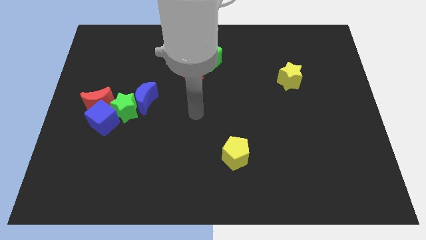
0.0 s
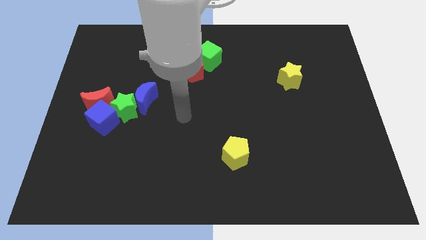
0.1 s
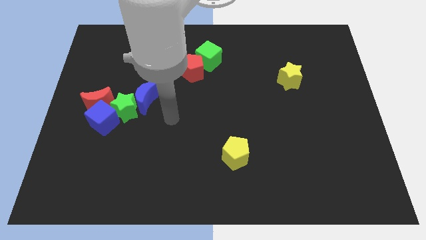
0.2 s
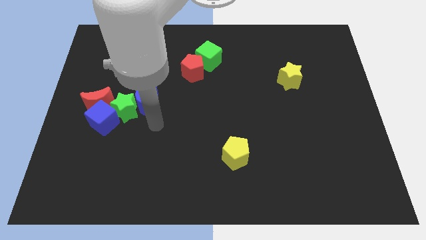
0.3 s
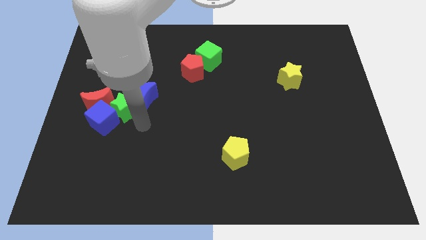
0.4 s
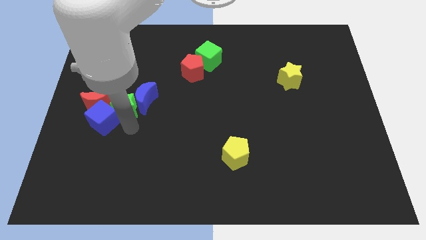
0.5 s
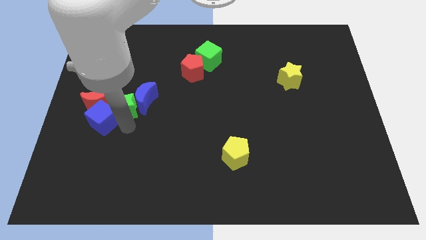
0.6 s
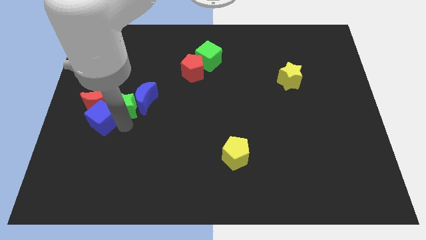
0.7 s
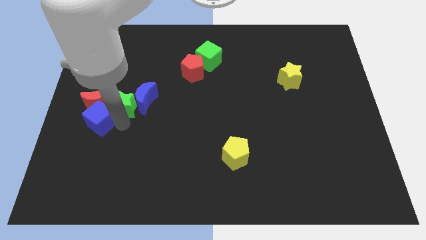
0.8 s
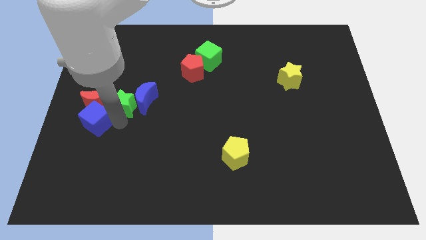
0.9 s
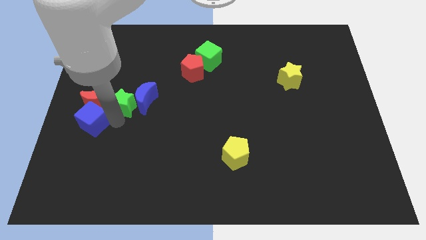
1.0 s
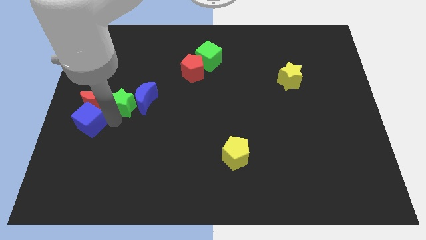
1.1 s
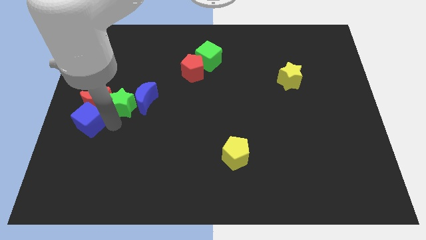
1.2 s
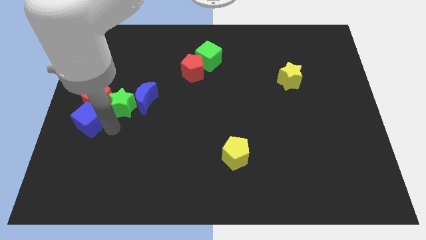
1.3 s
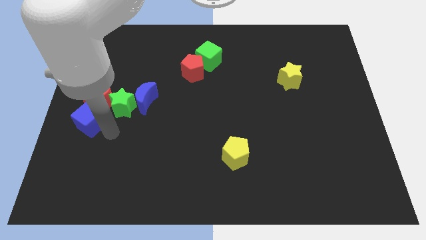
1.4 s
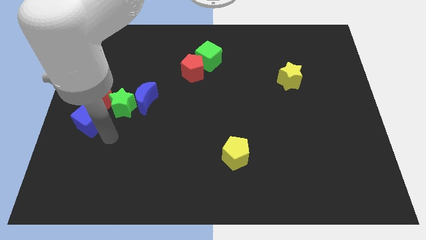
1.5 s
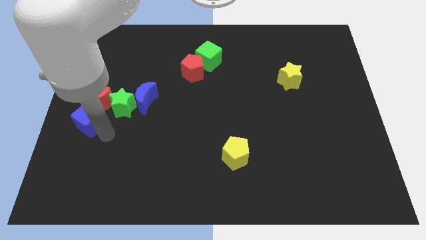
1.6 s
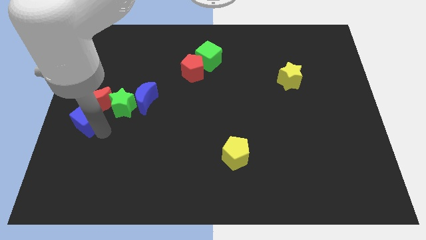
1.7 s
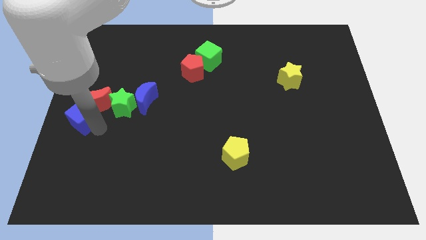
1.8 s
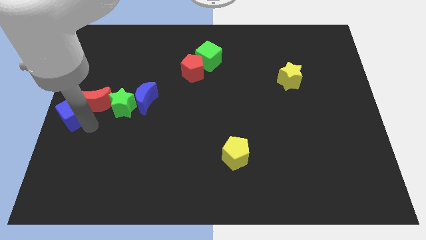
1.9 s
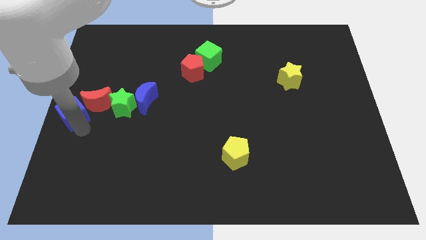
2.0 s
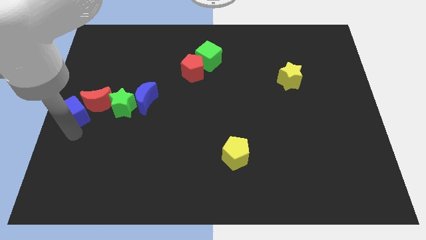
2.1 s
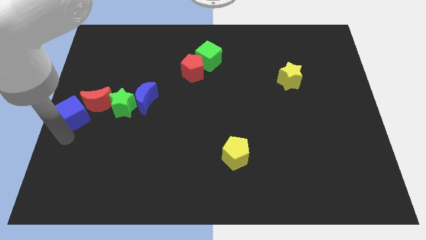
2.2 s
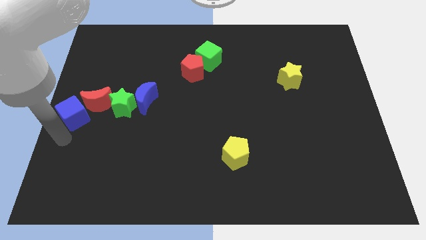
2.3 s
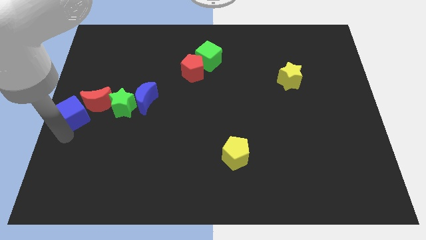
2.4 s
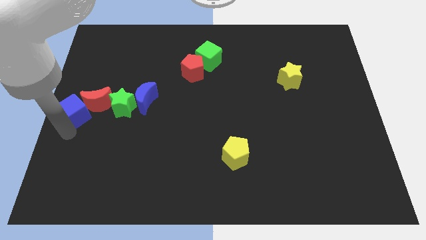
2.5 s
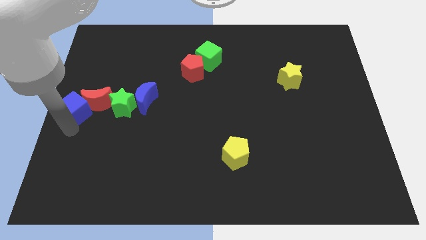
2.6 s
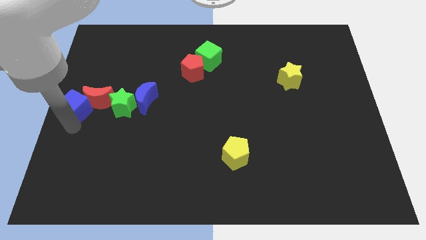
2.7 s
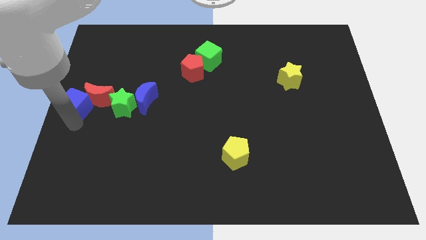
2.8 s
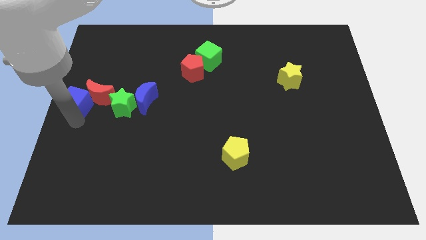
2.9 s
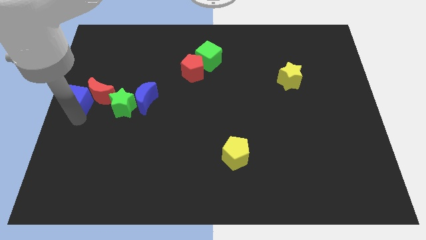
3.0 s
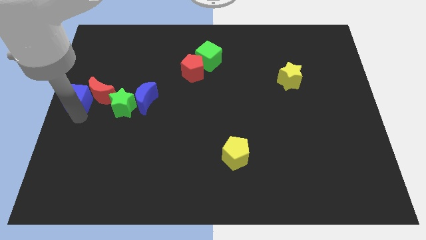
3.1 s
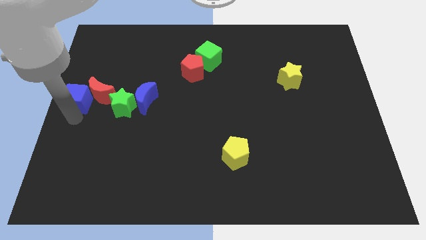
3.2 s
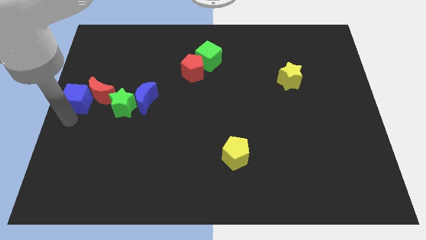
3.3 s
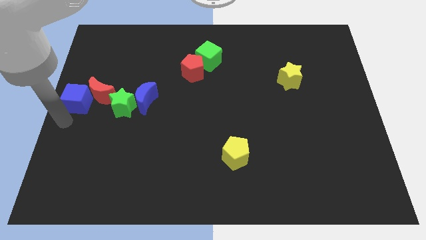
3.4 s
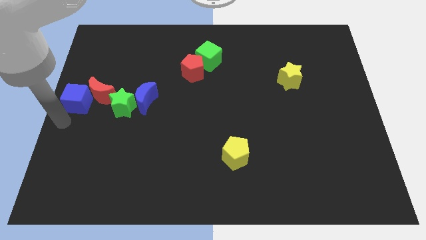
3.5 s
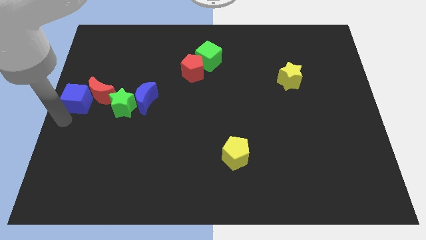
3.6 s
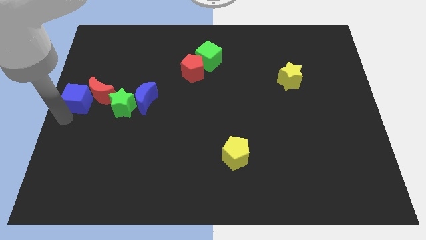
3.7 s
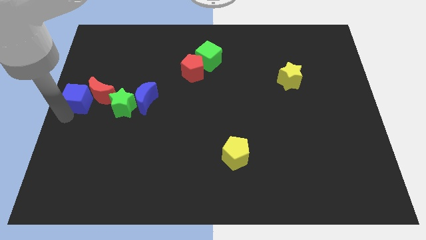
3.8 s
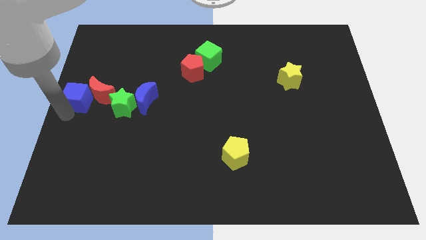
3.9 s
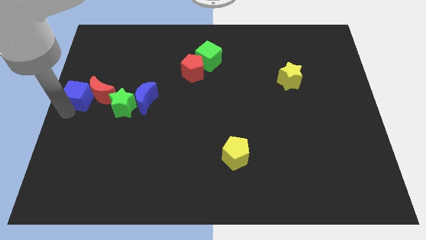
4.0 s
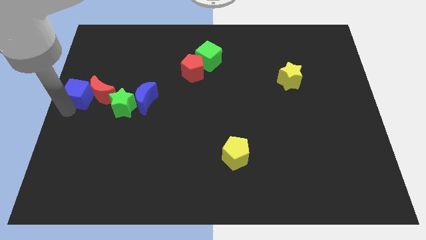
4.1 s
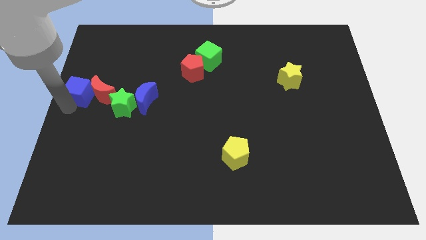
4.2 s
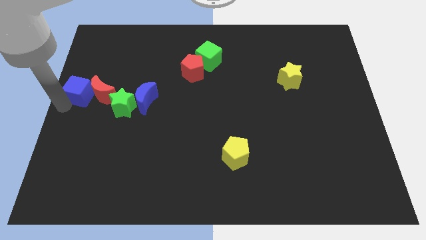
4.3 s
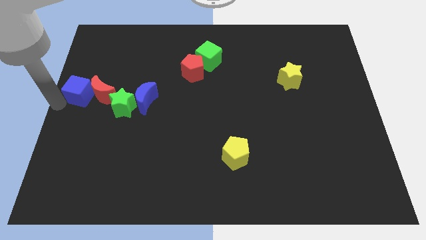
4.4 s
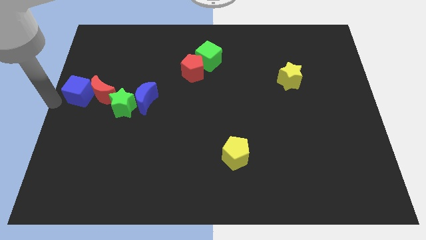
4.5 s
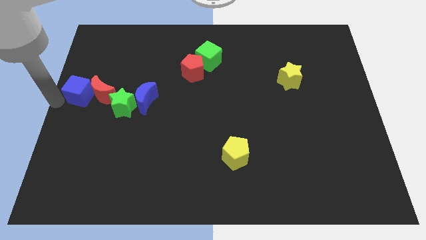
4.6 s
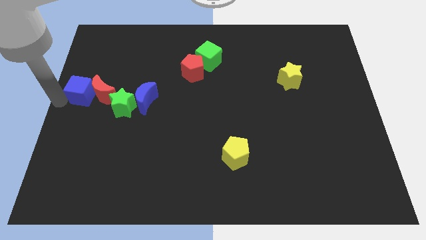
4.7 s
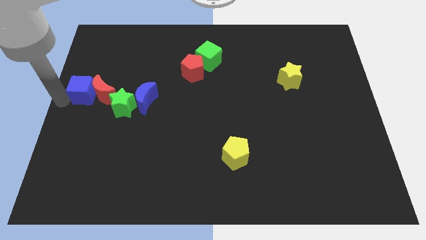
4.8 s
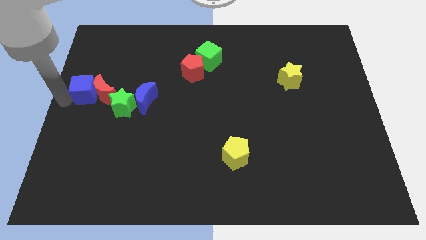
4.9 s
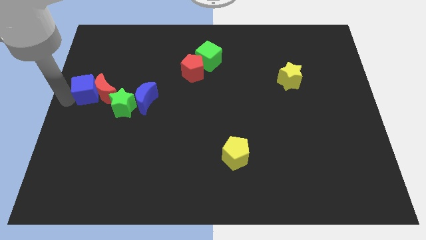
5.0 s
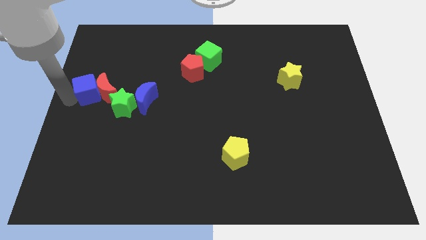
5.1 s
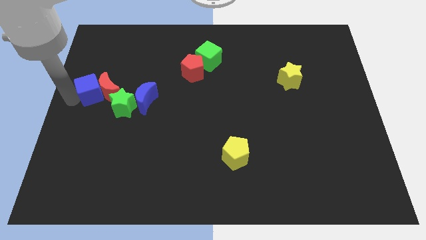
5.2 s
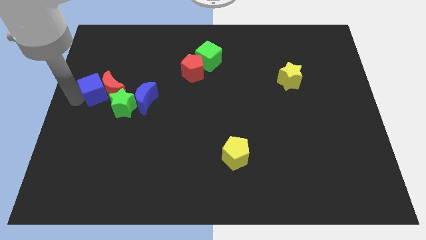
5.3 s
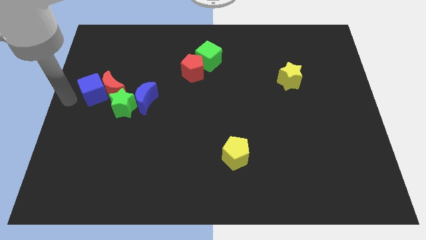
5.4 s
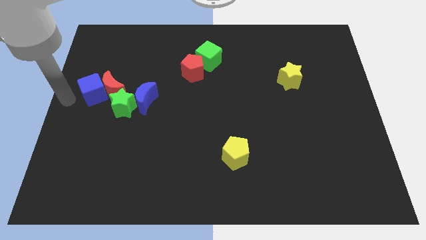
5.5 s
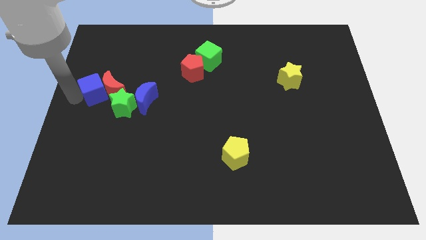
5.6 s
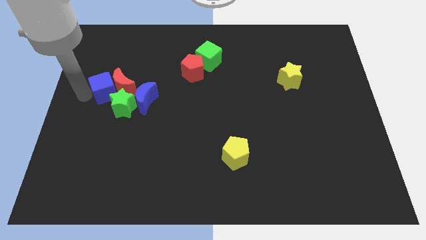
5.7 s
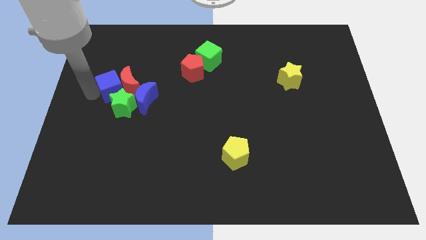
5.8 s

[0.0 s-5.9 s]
put the blue cube diagonally up and to the left of the blue moon

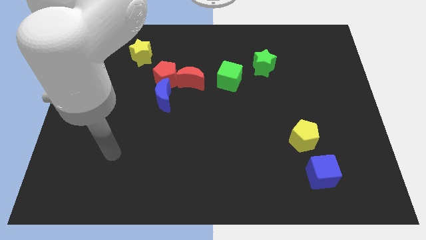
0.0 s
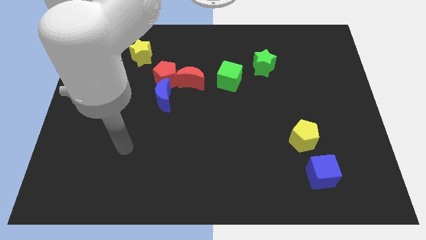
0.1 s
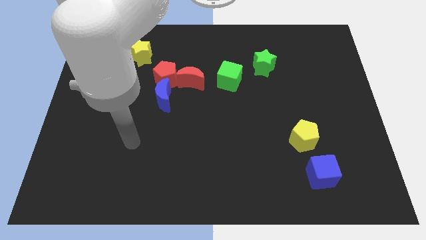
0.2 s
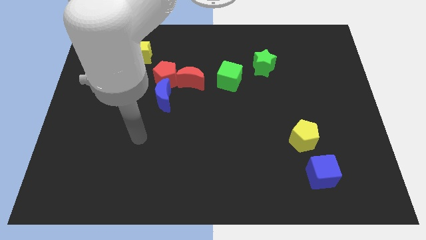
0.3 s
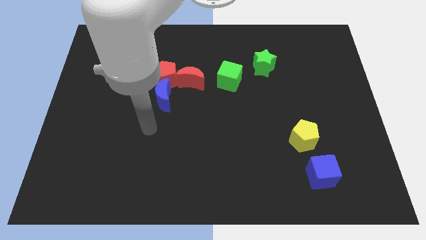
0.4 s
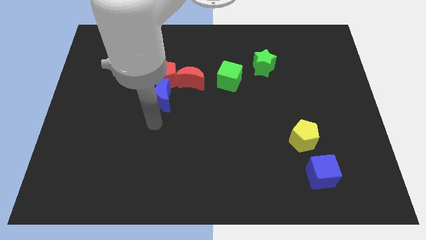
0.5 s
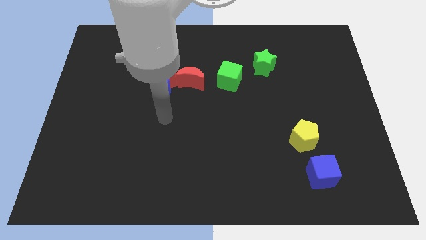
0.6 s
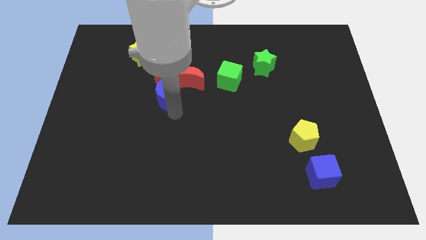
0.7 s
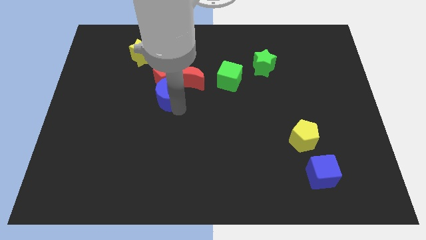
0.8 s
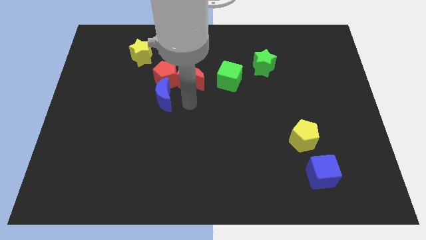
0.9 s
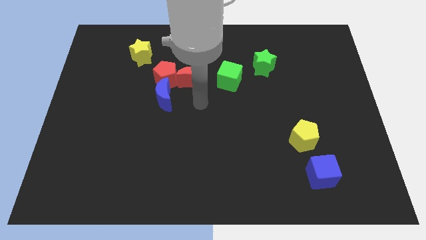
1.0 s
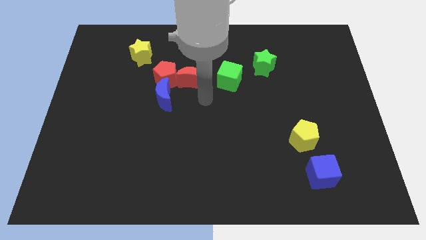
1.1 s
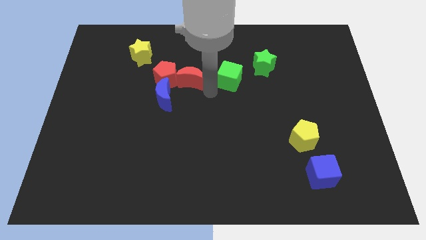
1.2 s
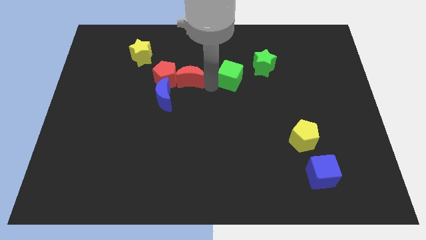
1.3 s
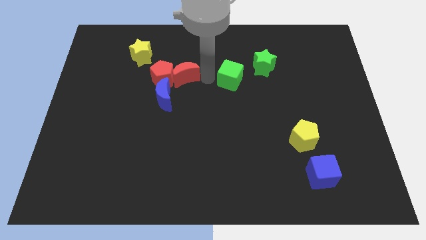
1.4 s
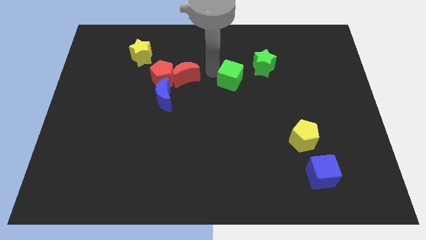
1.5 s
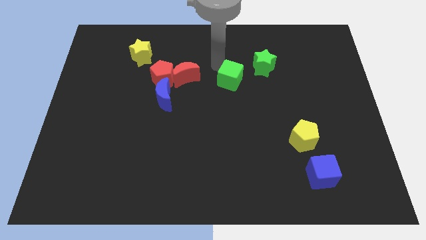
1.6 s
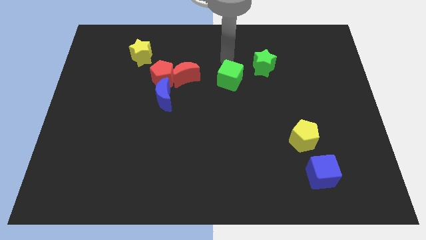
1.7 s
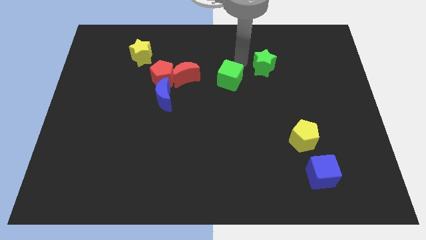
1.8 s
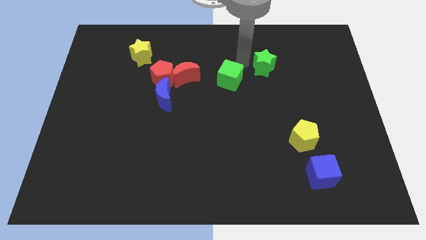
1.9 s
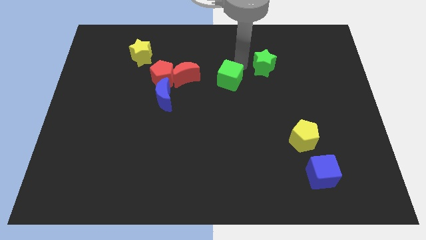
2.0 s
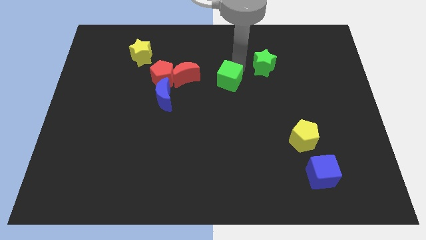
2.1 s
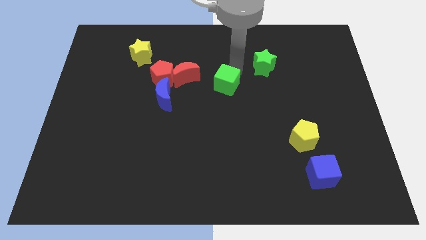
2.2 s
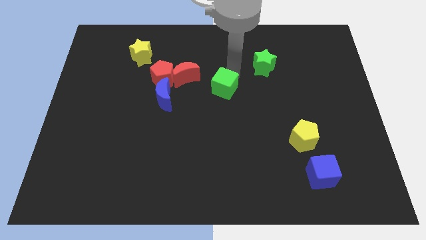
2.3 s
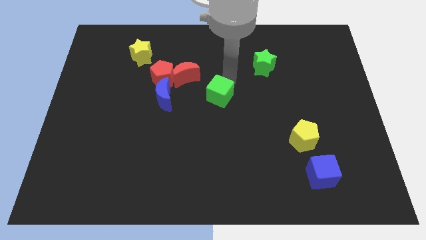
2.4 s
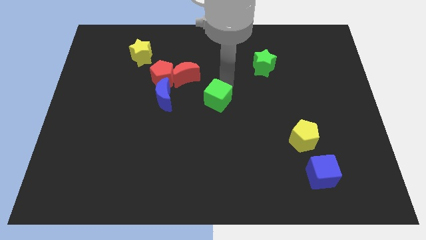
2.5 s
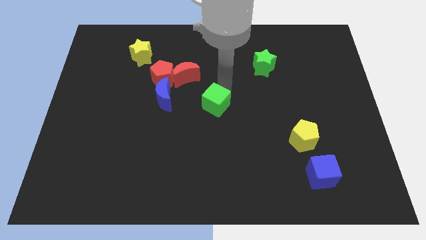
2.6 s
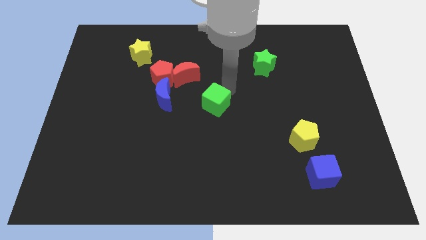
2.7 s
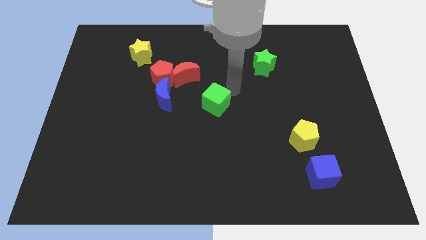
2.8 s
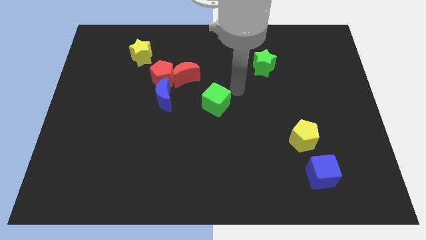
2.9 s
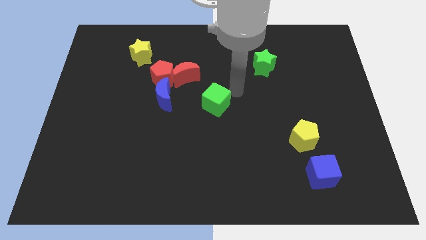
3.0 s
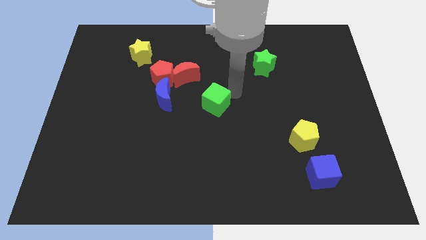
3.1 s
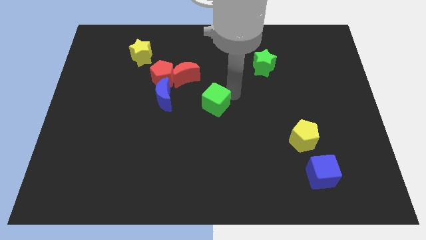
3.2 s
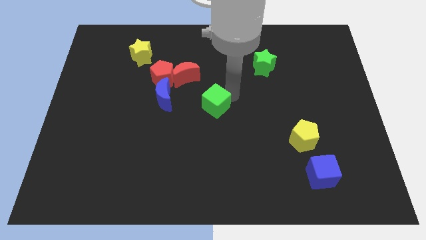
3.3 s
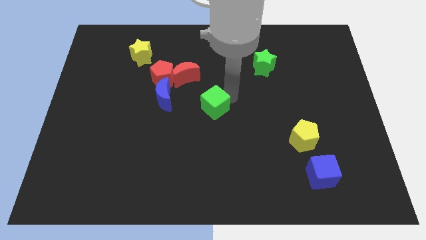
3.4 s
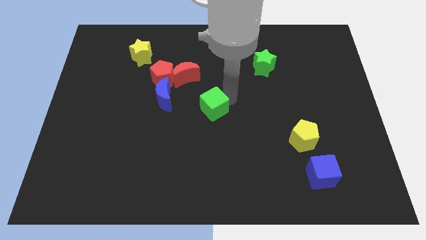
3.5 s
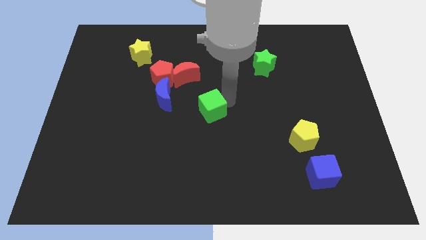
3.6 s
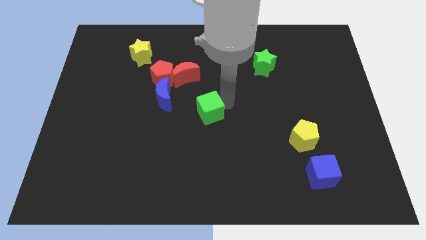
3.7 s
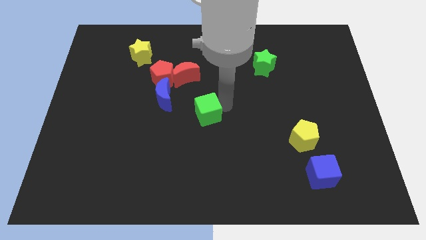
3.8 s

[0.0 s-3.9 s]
move the green cube to the bottom right side of the blue moon
